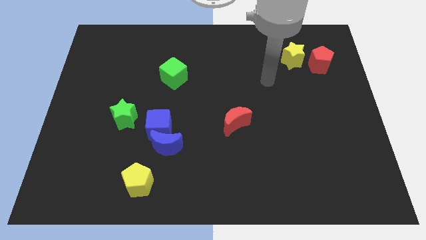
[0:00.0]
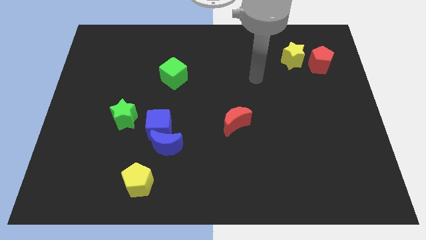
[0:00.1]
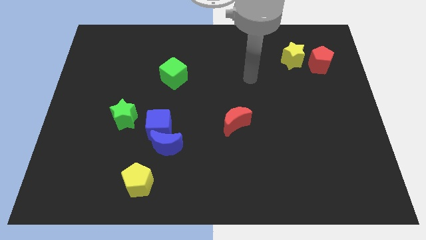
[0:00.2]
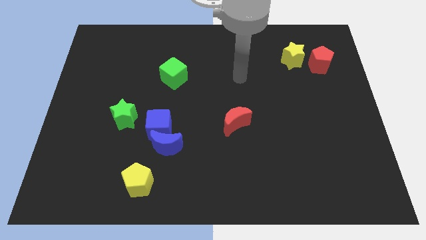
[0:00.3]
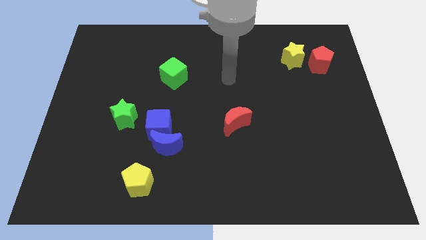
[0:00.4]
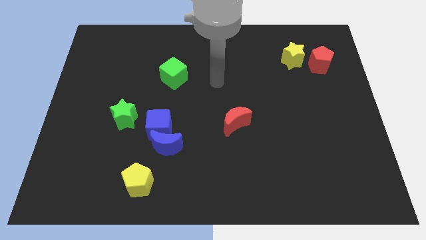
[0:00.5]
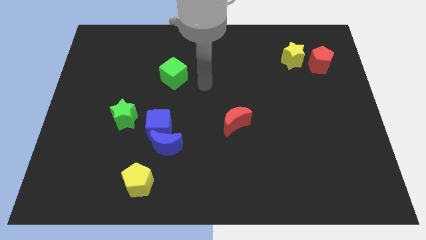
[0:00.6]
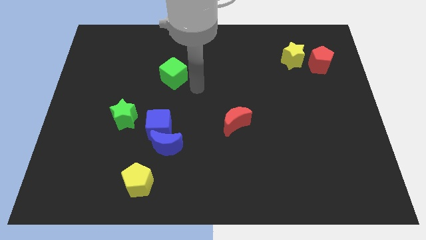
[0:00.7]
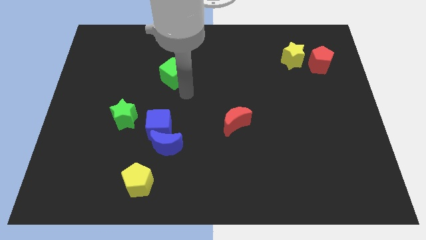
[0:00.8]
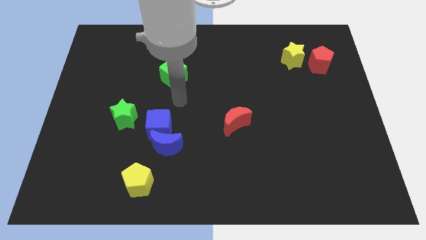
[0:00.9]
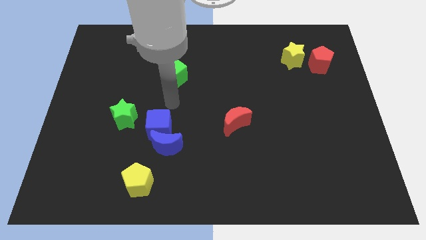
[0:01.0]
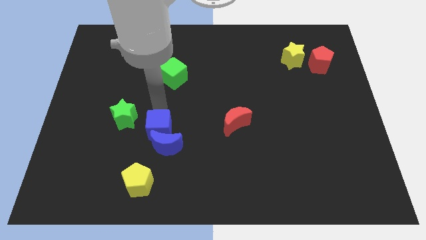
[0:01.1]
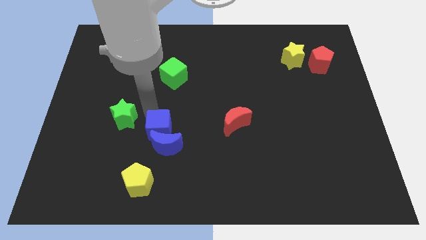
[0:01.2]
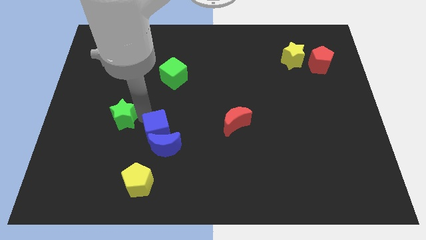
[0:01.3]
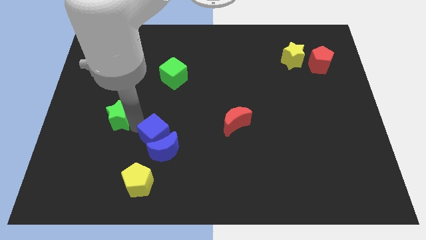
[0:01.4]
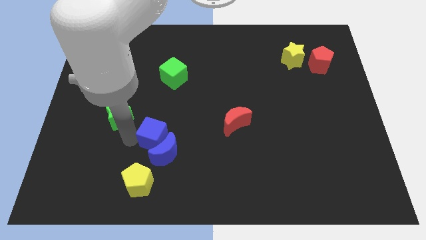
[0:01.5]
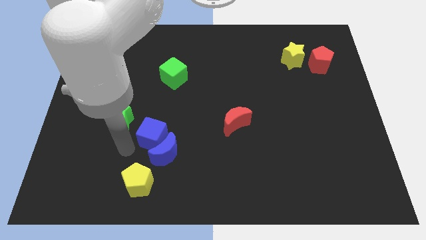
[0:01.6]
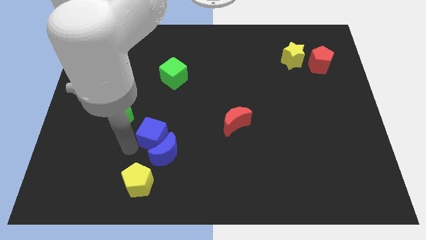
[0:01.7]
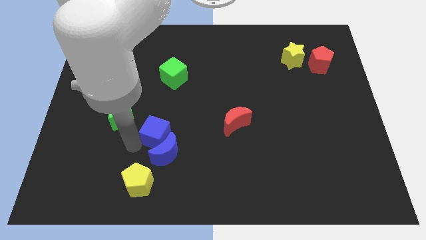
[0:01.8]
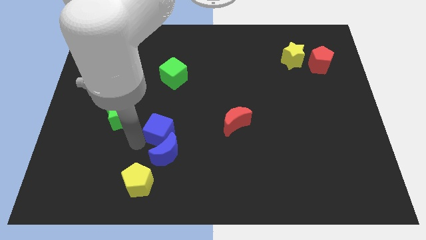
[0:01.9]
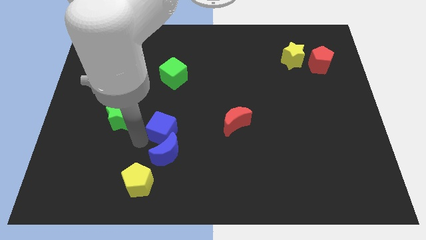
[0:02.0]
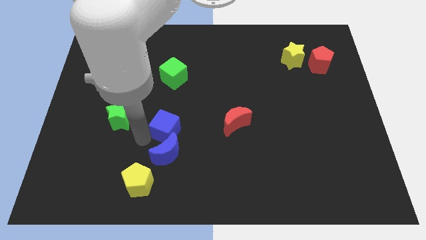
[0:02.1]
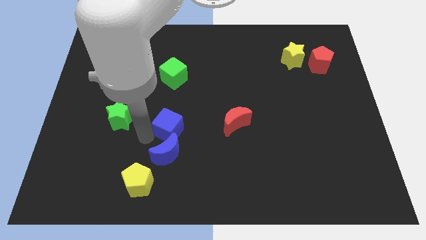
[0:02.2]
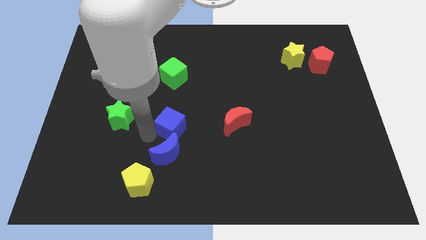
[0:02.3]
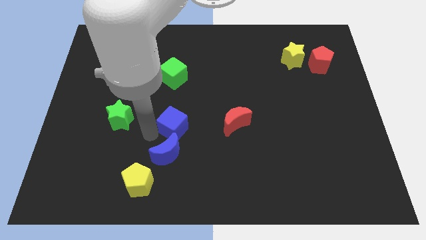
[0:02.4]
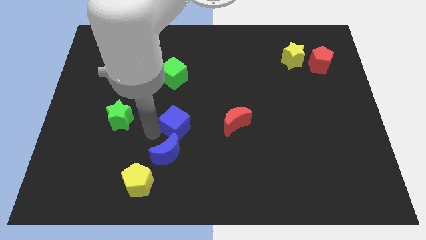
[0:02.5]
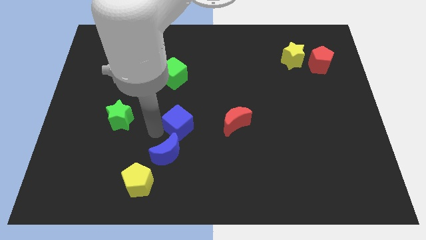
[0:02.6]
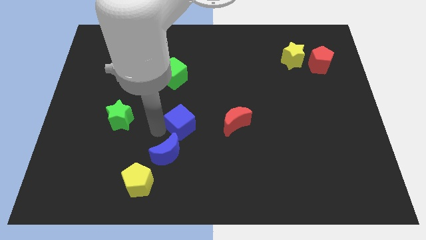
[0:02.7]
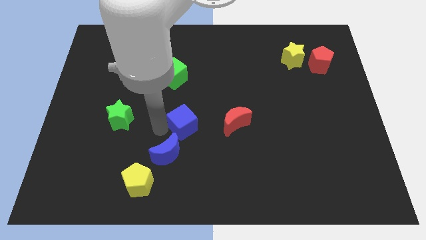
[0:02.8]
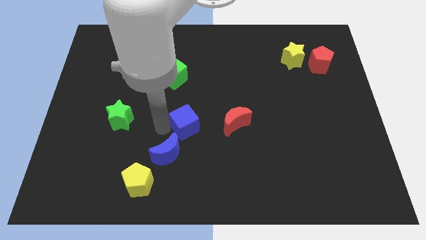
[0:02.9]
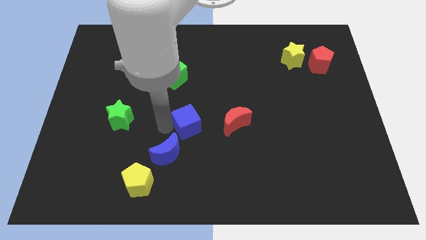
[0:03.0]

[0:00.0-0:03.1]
pull the blue cube apart from the blue moon and green star

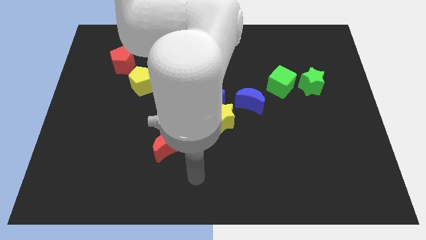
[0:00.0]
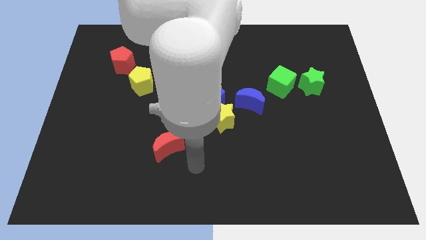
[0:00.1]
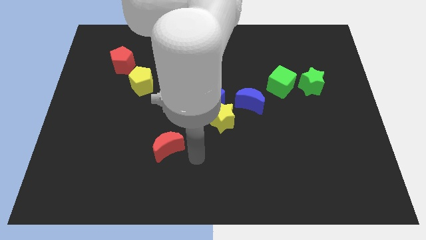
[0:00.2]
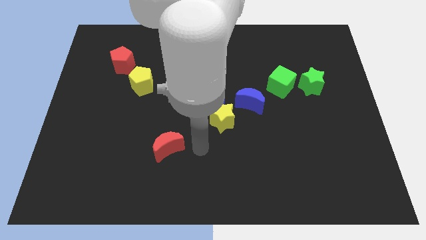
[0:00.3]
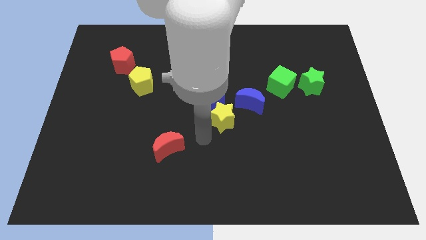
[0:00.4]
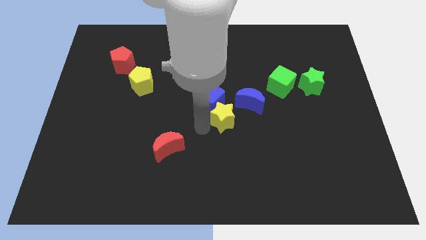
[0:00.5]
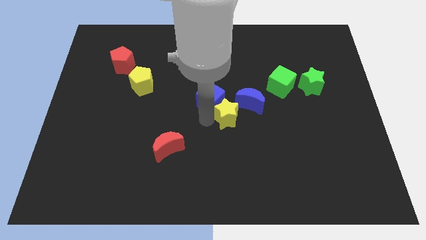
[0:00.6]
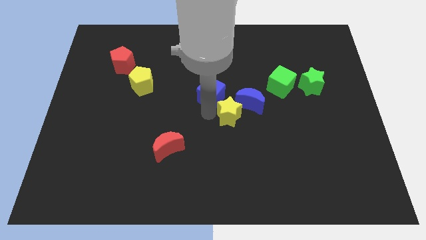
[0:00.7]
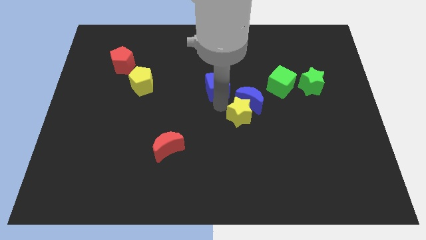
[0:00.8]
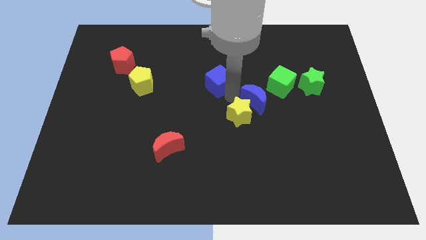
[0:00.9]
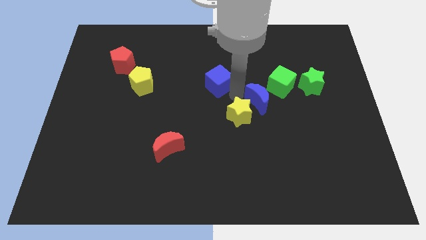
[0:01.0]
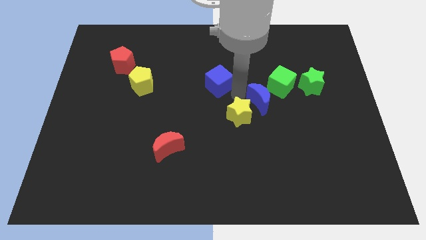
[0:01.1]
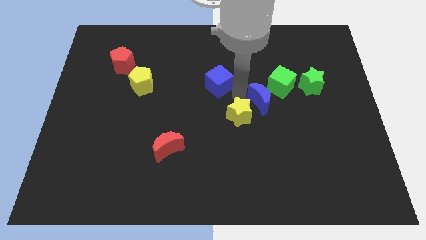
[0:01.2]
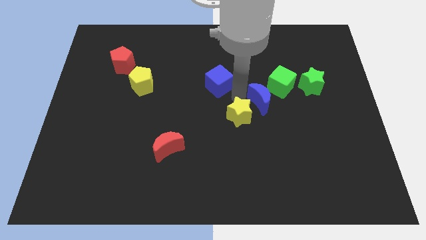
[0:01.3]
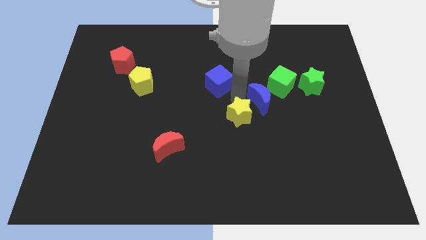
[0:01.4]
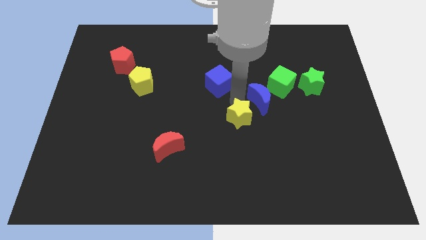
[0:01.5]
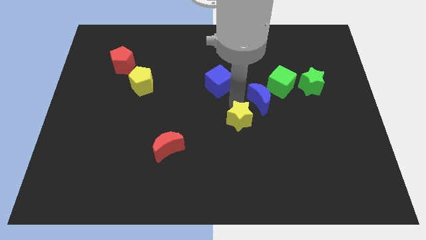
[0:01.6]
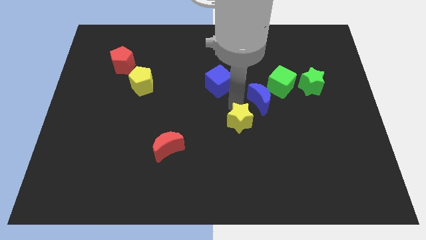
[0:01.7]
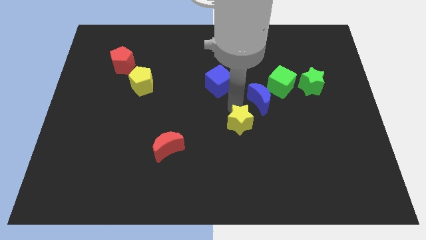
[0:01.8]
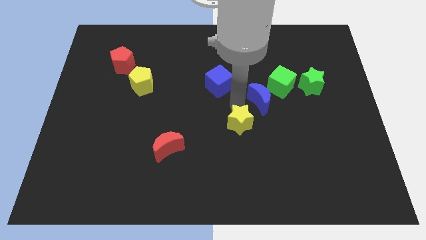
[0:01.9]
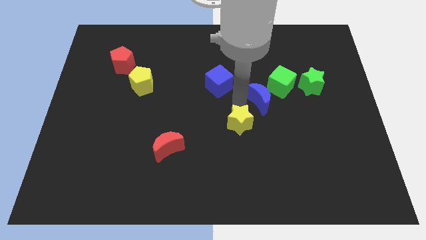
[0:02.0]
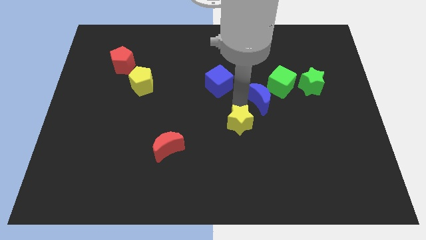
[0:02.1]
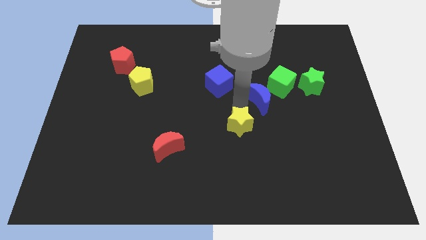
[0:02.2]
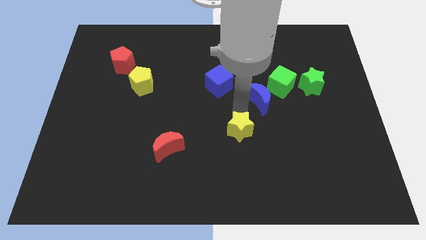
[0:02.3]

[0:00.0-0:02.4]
separate the yellow star from the blue cube and blue moon

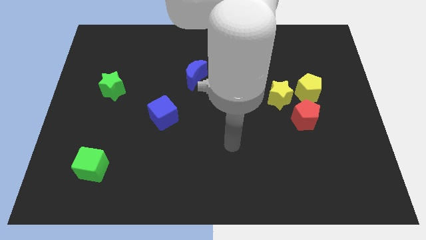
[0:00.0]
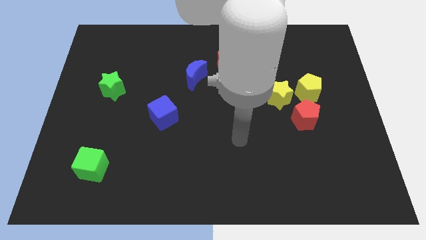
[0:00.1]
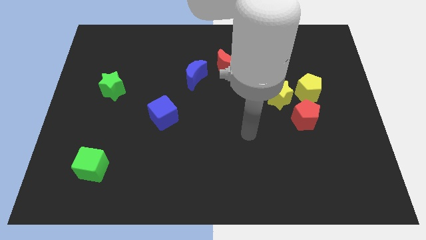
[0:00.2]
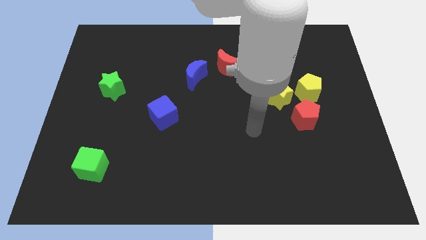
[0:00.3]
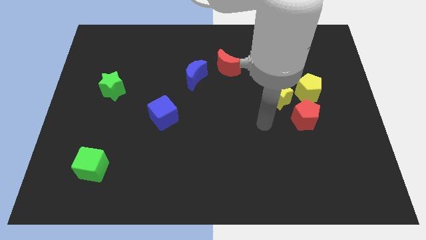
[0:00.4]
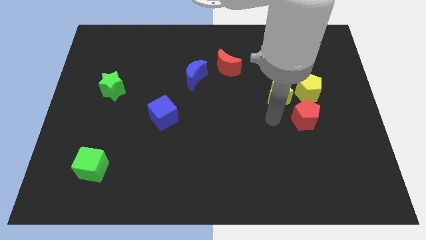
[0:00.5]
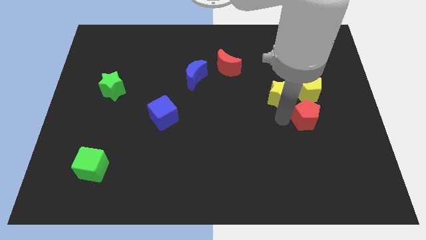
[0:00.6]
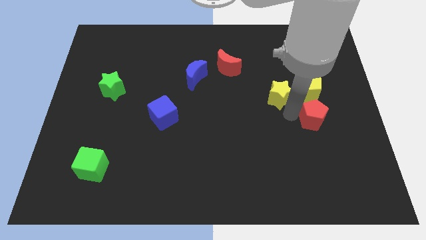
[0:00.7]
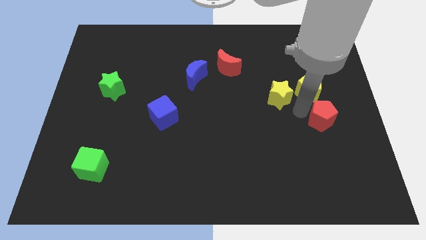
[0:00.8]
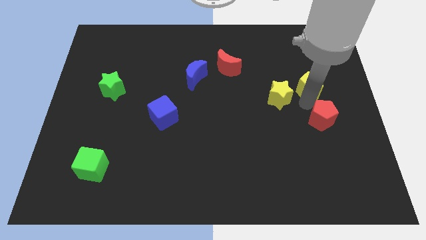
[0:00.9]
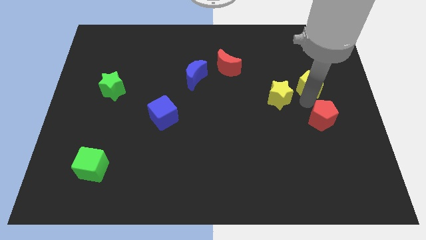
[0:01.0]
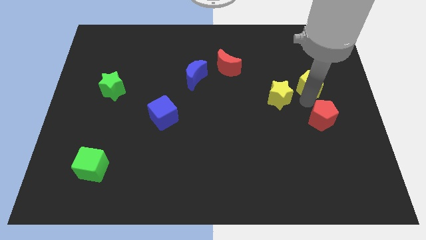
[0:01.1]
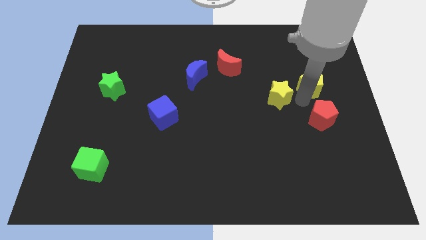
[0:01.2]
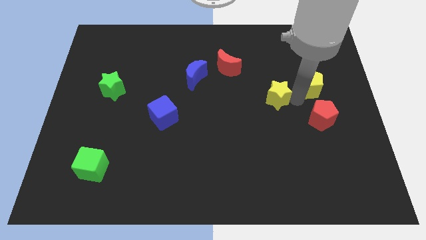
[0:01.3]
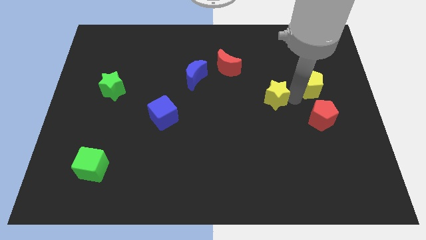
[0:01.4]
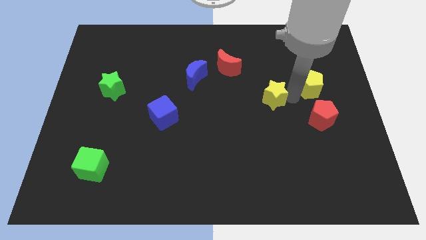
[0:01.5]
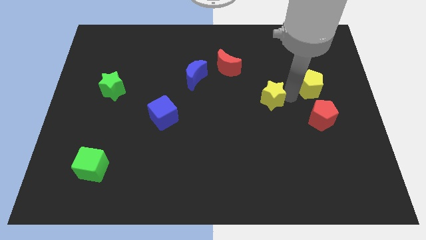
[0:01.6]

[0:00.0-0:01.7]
separate the yellow star from the yellow pentagon and red pentagon

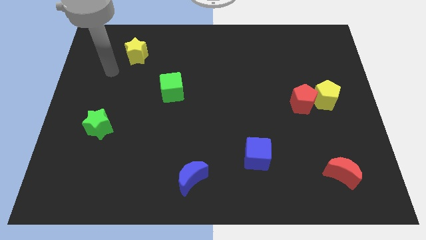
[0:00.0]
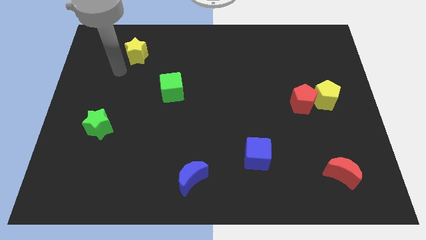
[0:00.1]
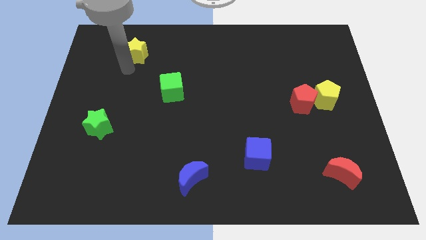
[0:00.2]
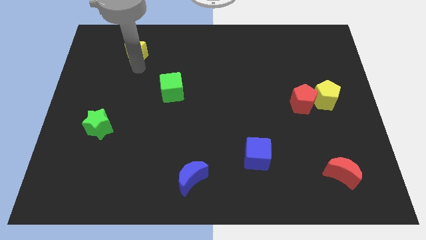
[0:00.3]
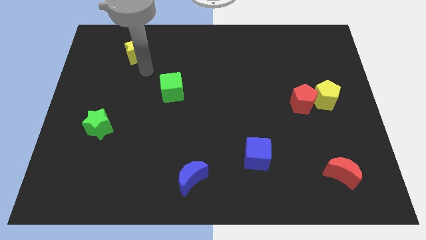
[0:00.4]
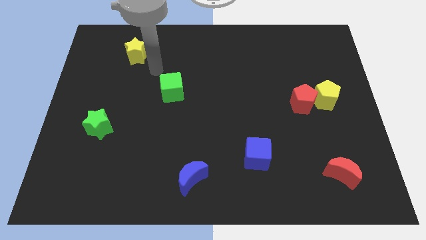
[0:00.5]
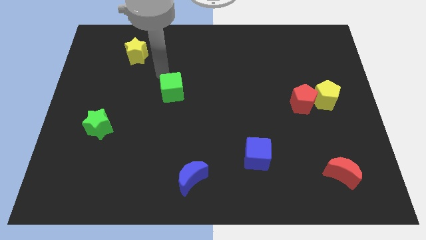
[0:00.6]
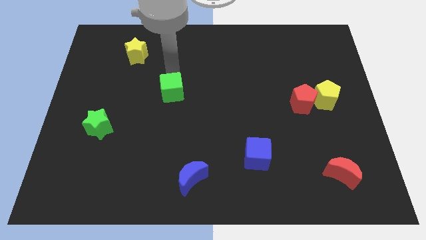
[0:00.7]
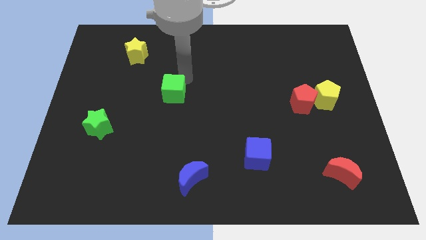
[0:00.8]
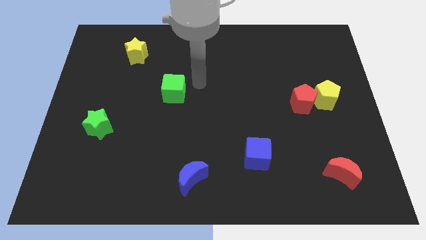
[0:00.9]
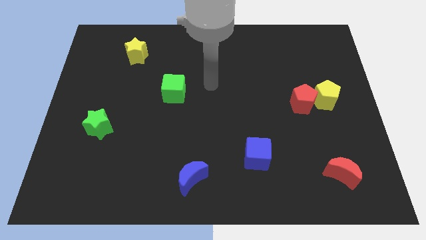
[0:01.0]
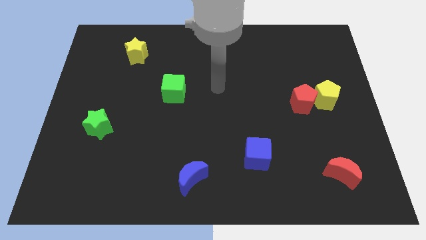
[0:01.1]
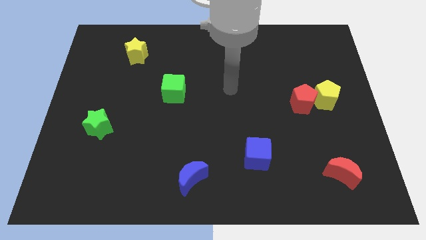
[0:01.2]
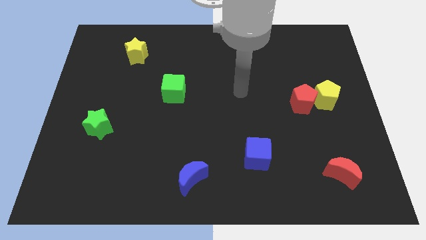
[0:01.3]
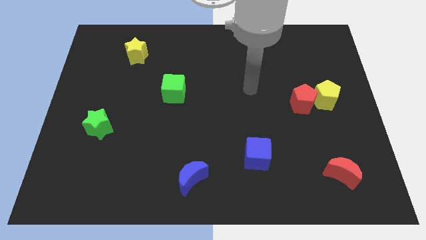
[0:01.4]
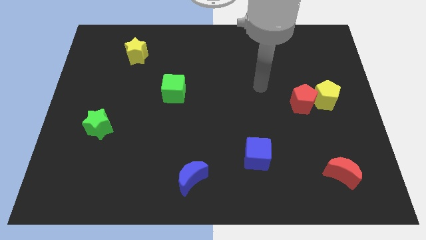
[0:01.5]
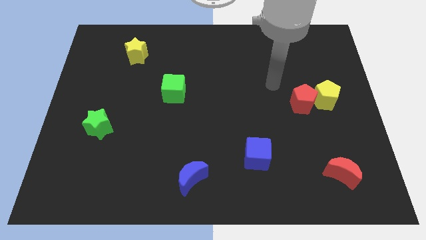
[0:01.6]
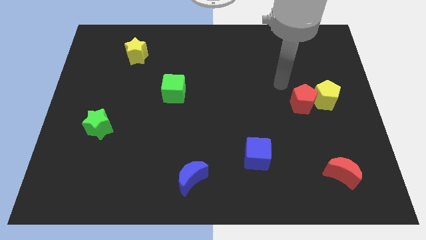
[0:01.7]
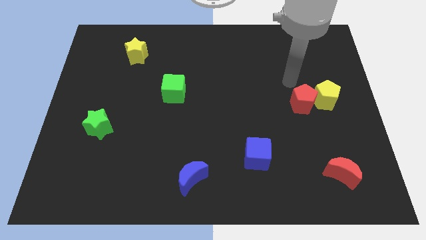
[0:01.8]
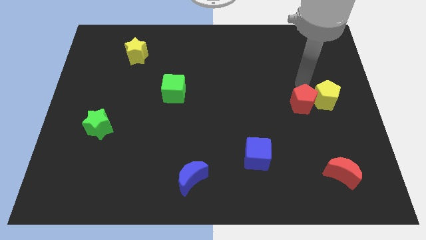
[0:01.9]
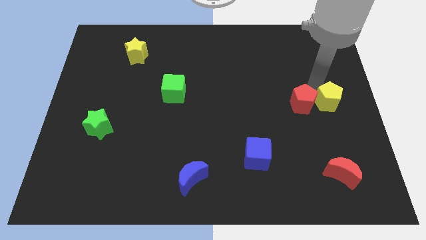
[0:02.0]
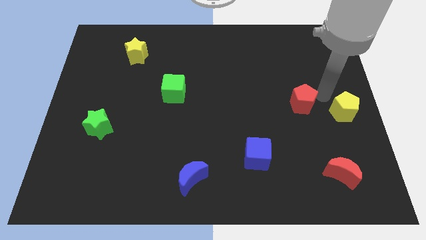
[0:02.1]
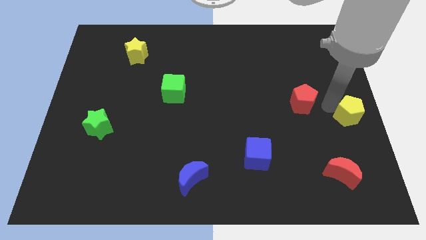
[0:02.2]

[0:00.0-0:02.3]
separate the red pentagon from the yellow pentagon
